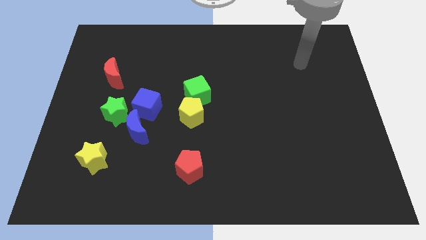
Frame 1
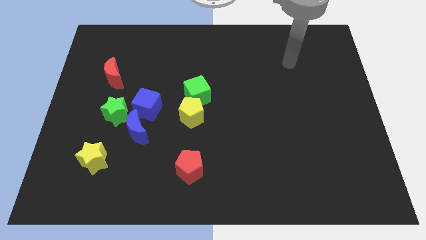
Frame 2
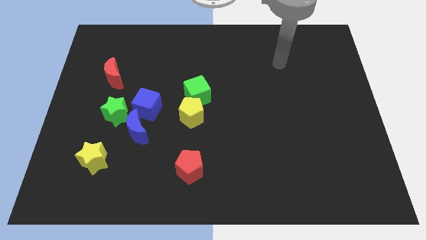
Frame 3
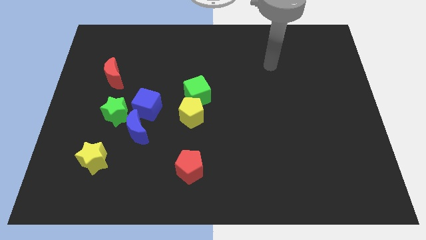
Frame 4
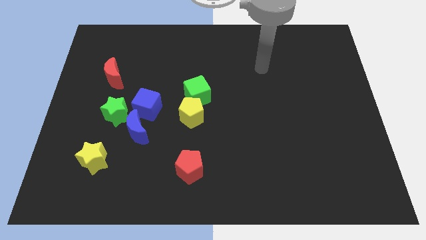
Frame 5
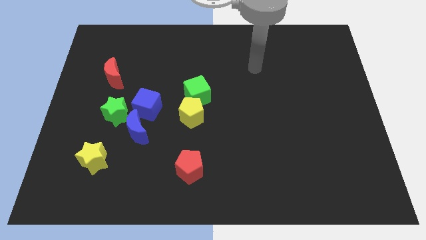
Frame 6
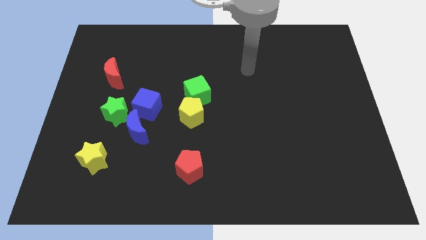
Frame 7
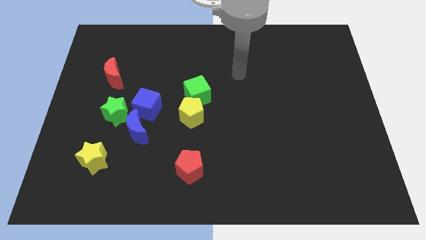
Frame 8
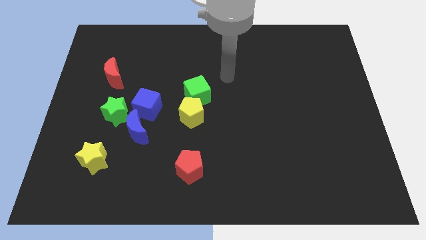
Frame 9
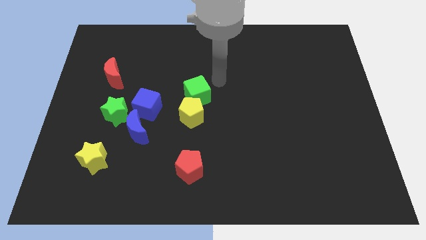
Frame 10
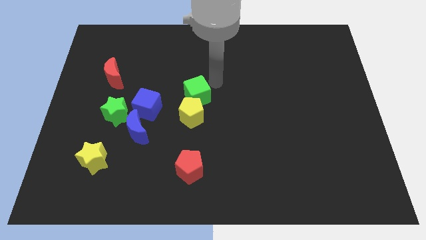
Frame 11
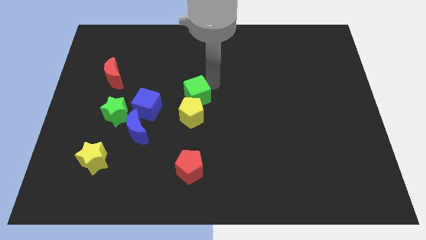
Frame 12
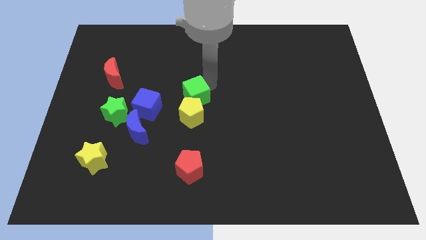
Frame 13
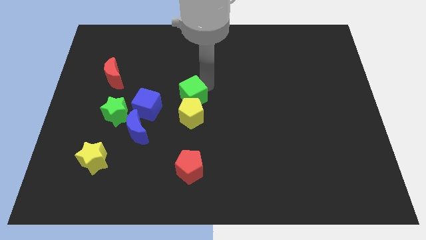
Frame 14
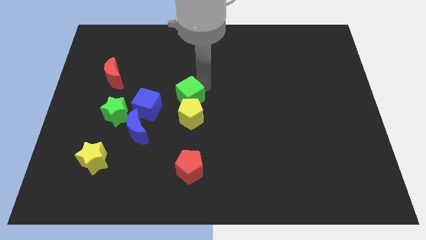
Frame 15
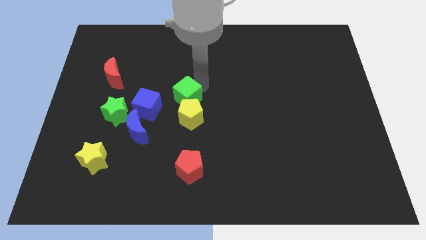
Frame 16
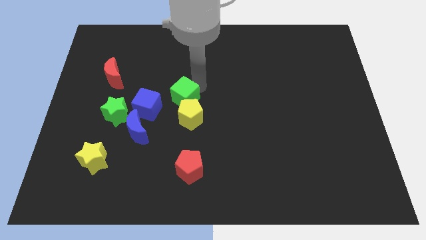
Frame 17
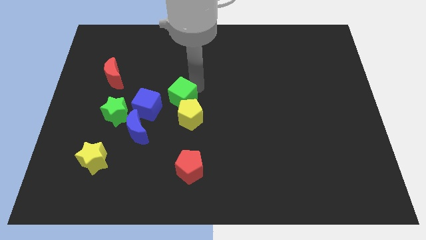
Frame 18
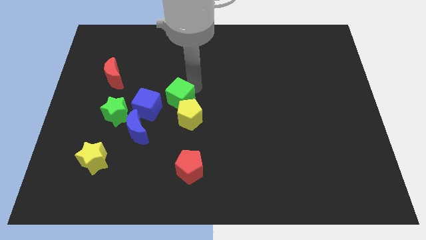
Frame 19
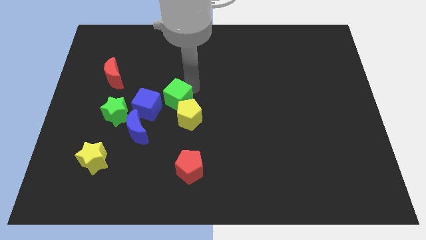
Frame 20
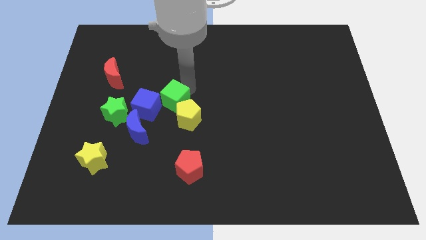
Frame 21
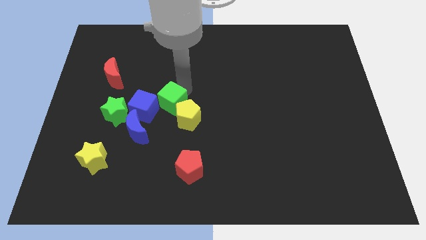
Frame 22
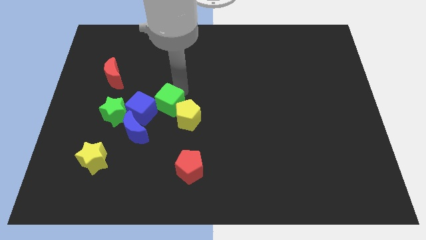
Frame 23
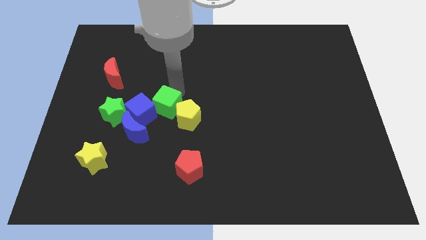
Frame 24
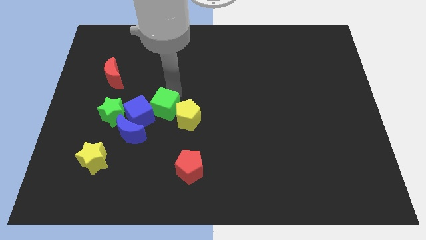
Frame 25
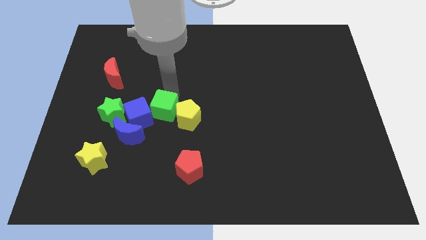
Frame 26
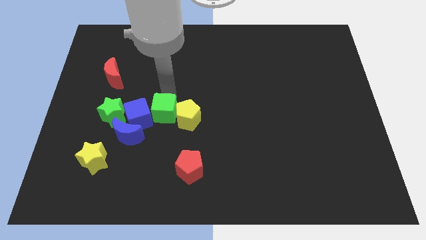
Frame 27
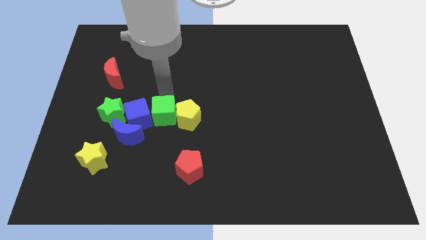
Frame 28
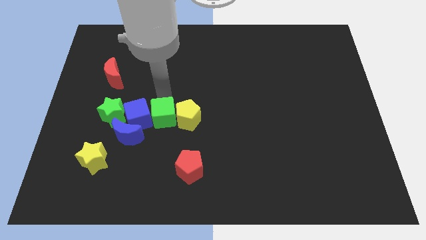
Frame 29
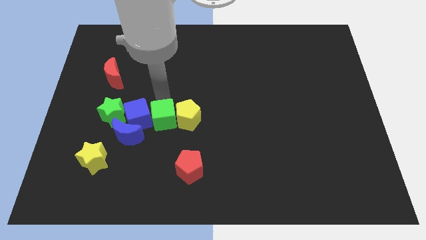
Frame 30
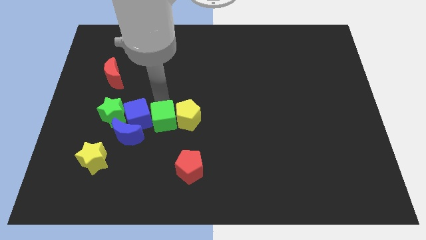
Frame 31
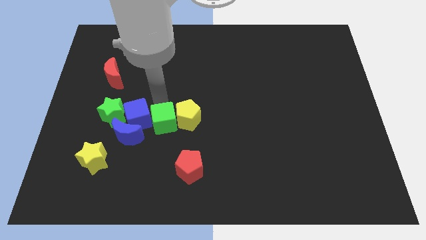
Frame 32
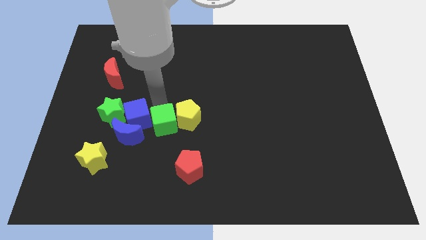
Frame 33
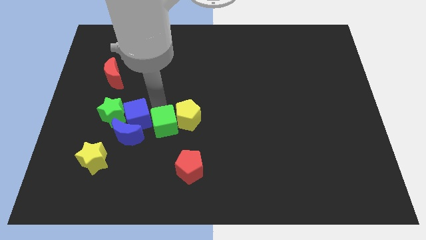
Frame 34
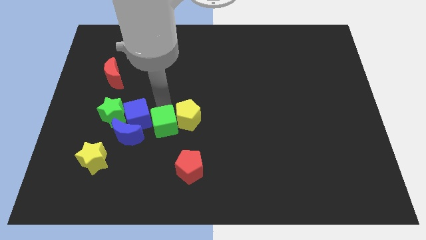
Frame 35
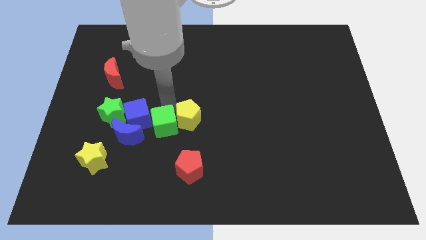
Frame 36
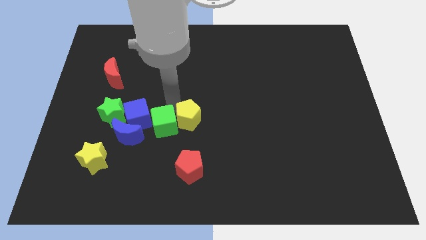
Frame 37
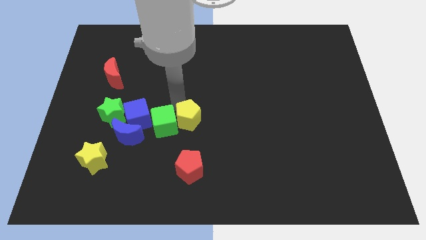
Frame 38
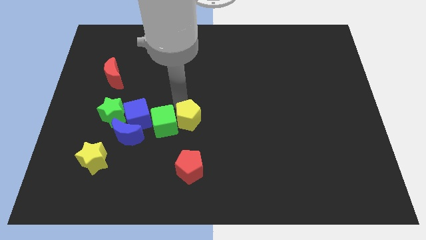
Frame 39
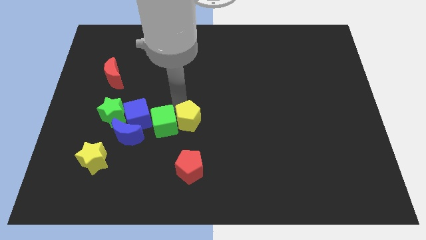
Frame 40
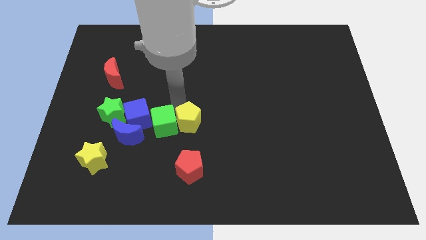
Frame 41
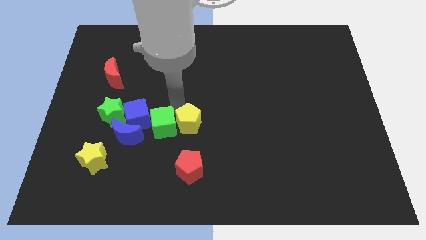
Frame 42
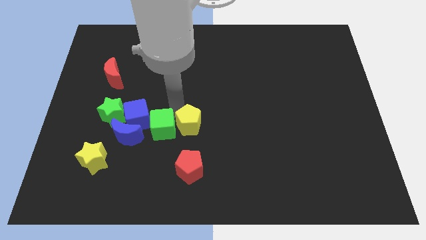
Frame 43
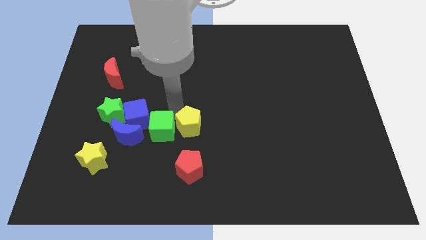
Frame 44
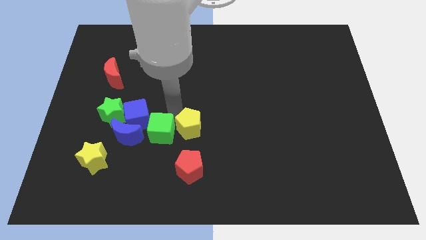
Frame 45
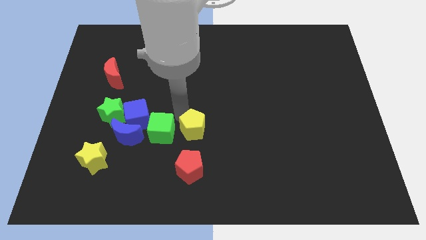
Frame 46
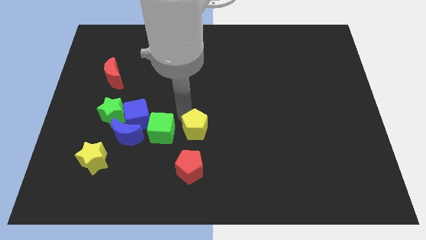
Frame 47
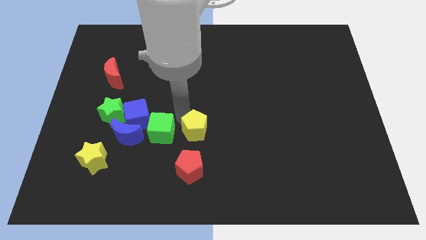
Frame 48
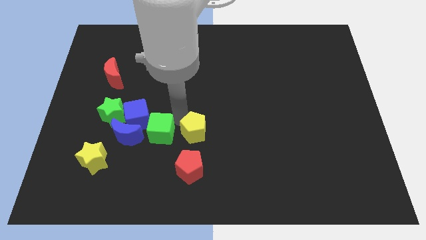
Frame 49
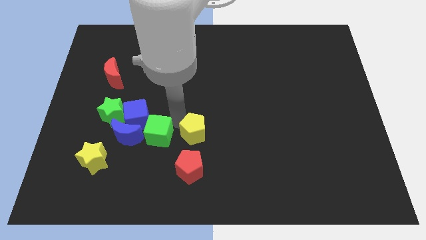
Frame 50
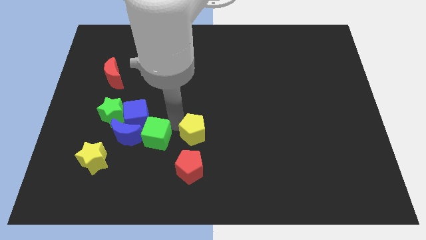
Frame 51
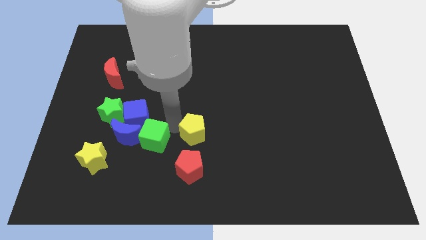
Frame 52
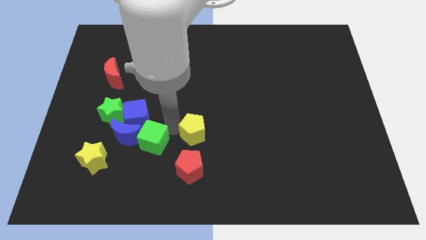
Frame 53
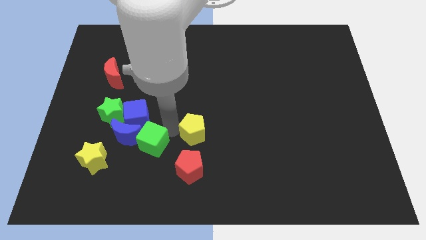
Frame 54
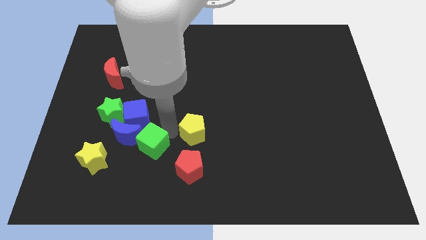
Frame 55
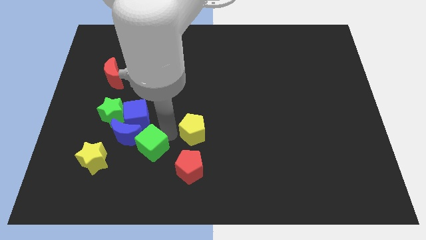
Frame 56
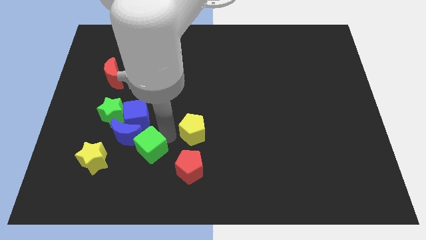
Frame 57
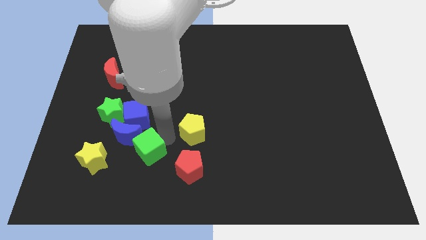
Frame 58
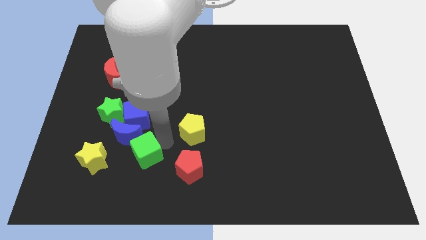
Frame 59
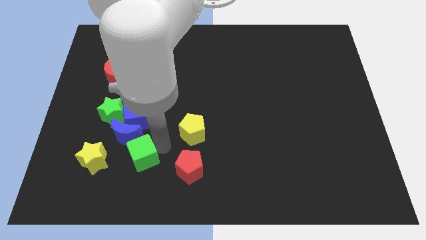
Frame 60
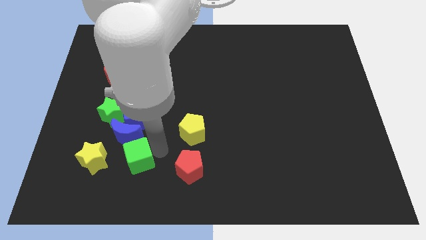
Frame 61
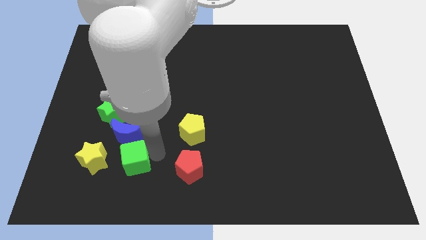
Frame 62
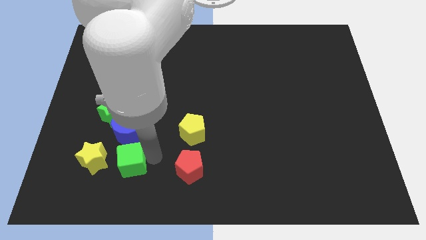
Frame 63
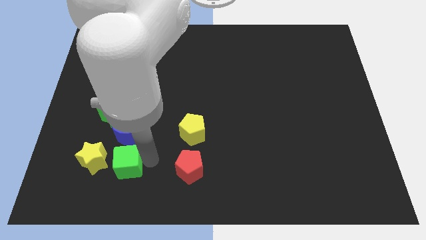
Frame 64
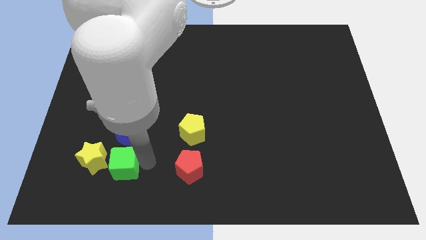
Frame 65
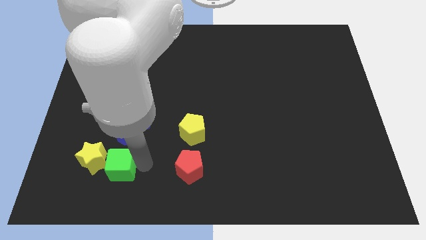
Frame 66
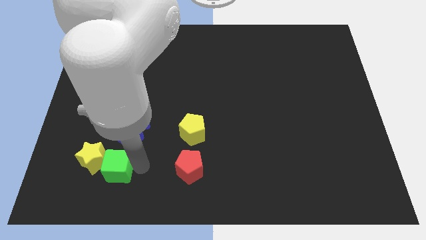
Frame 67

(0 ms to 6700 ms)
slide the green cube close to the yellow star

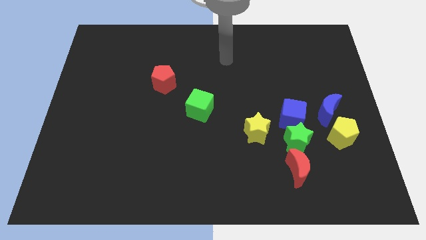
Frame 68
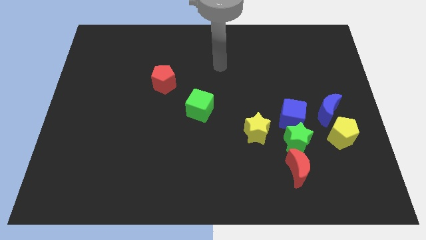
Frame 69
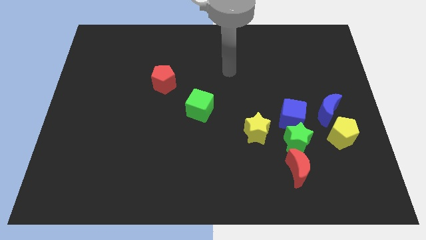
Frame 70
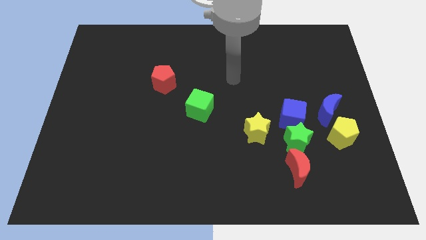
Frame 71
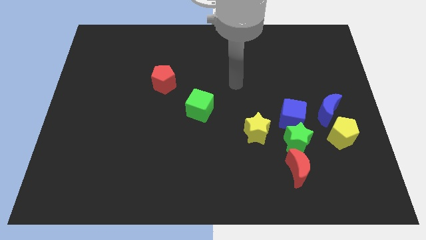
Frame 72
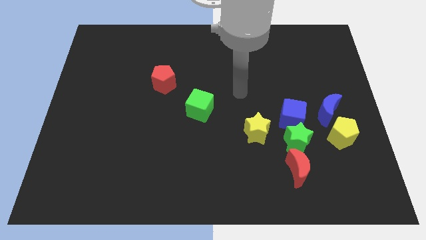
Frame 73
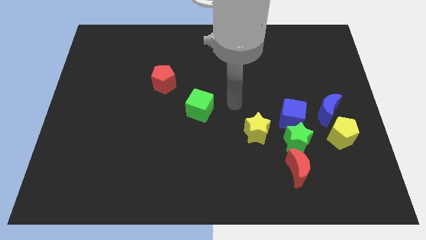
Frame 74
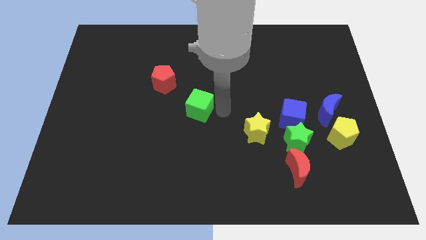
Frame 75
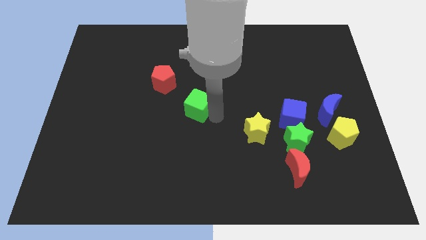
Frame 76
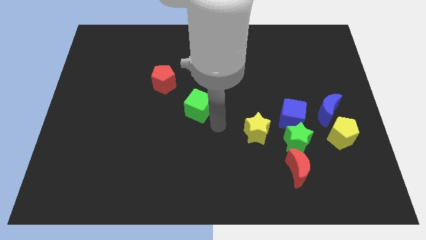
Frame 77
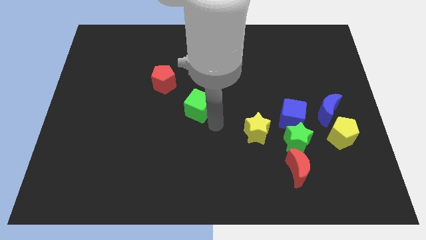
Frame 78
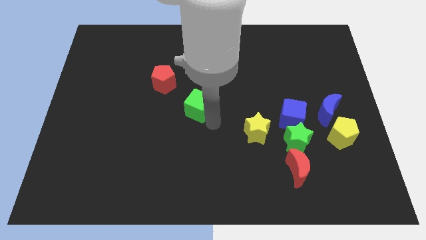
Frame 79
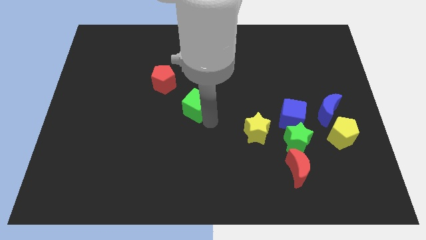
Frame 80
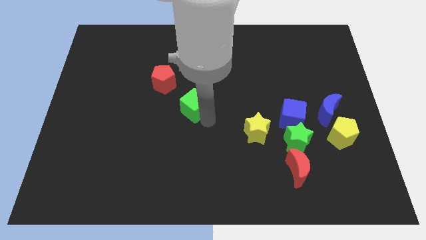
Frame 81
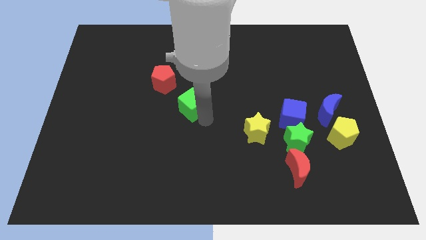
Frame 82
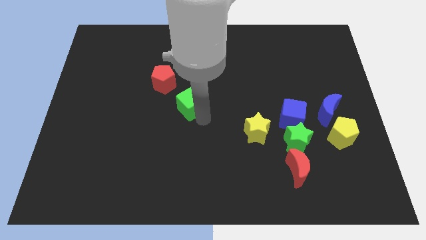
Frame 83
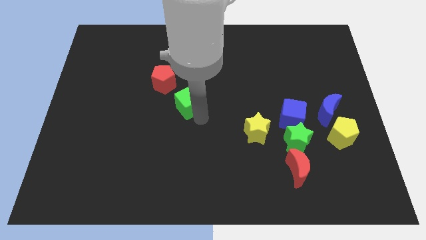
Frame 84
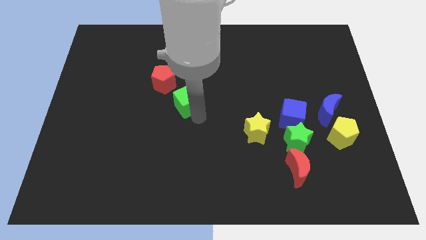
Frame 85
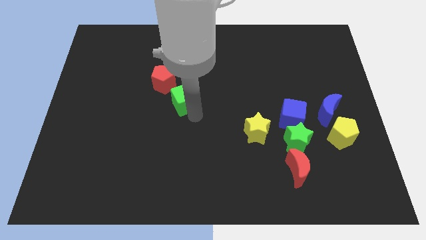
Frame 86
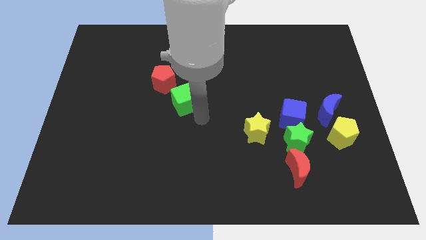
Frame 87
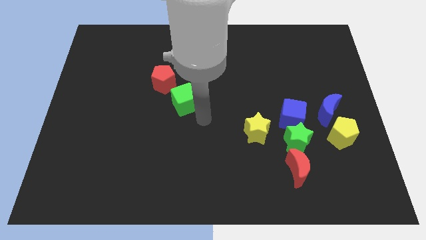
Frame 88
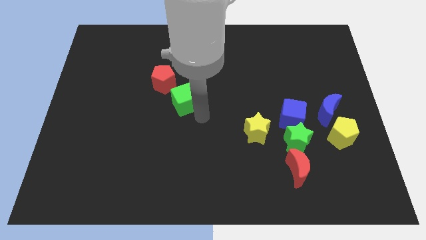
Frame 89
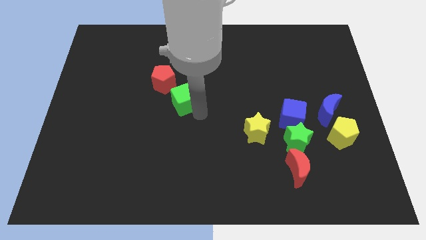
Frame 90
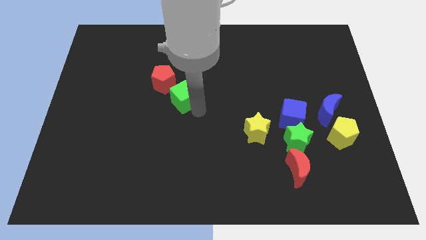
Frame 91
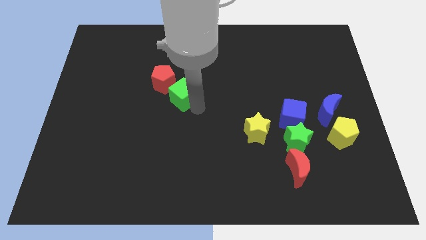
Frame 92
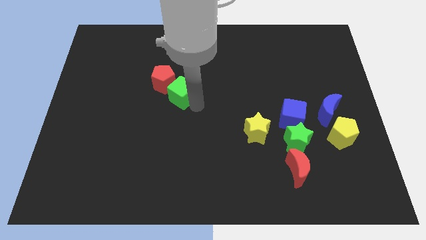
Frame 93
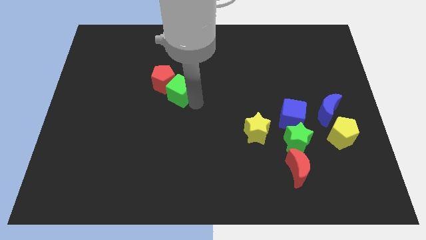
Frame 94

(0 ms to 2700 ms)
slide the green cube to the red pentagon
